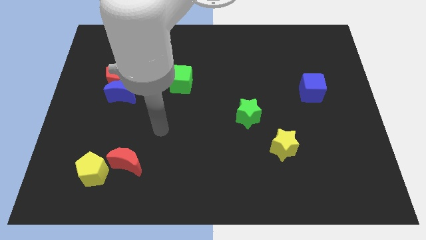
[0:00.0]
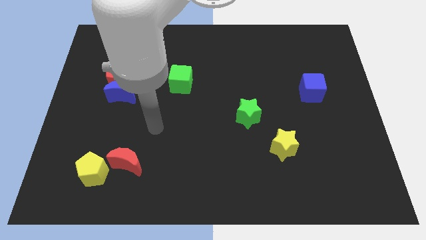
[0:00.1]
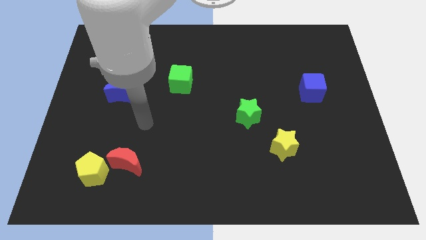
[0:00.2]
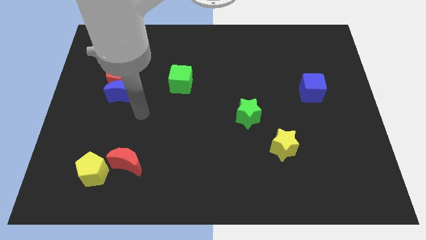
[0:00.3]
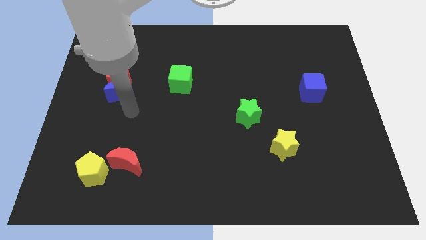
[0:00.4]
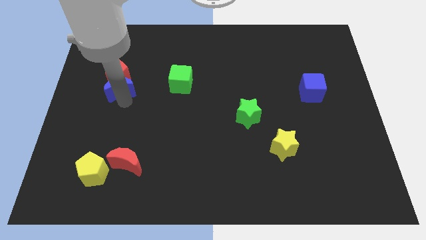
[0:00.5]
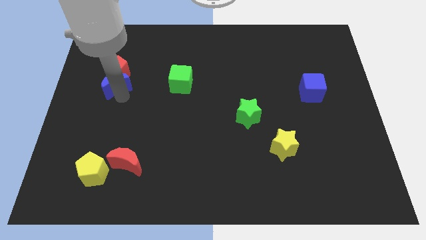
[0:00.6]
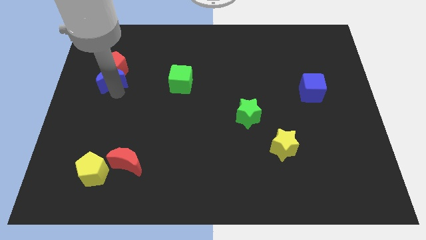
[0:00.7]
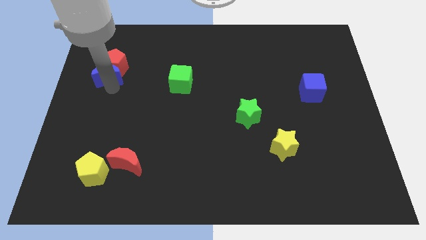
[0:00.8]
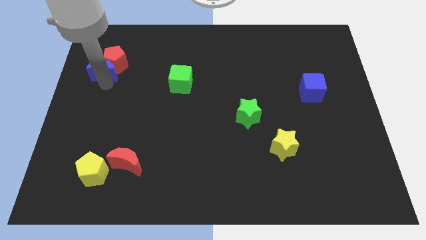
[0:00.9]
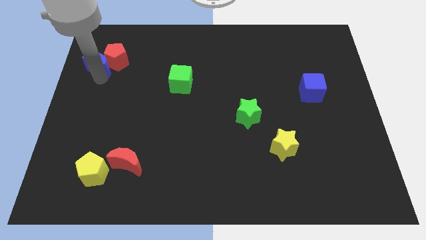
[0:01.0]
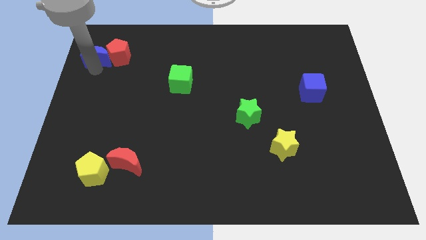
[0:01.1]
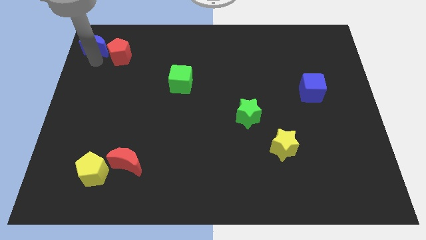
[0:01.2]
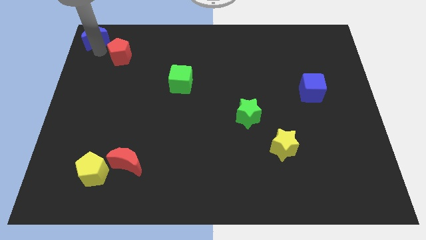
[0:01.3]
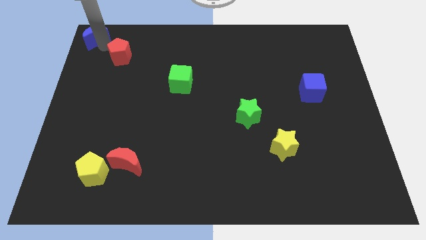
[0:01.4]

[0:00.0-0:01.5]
move the red pentagon away from the blue moon

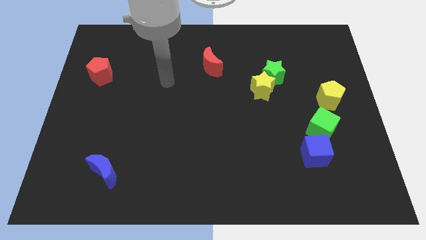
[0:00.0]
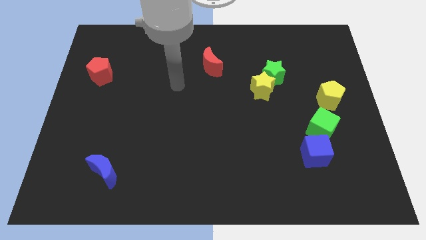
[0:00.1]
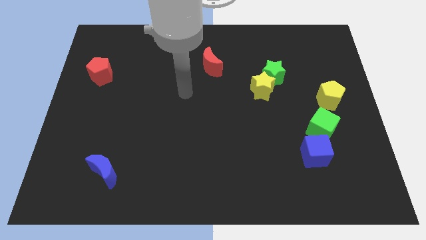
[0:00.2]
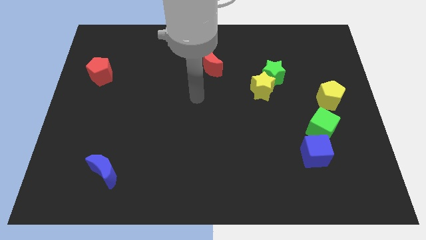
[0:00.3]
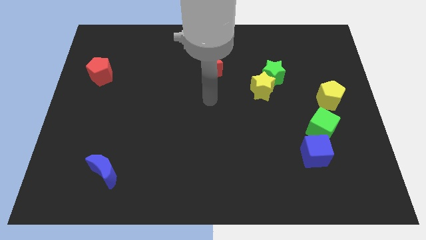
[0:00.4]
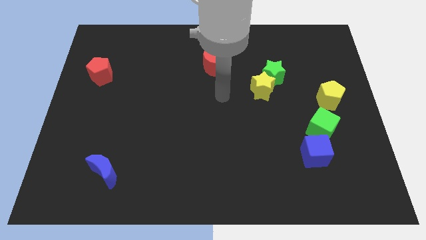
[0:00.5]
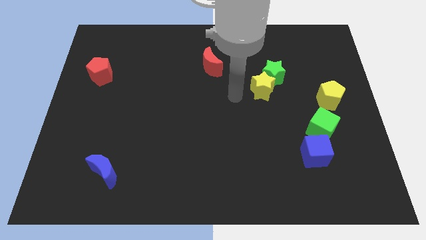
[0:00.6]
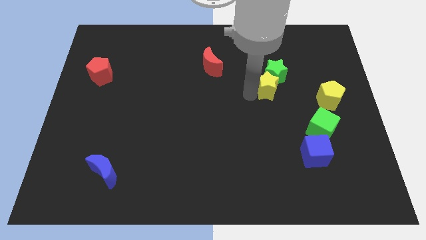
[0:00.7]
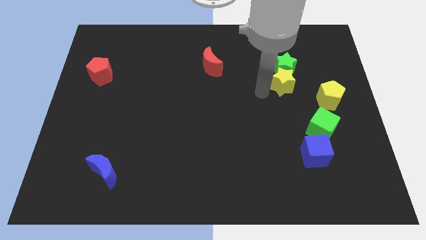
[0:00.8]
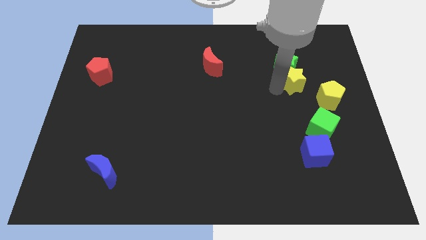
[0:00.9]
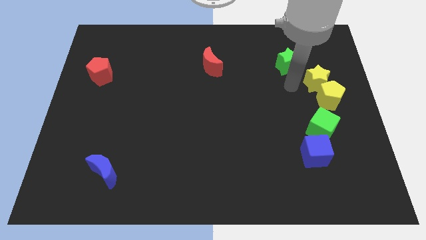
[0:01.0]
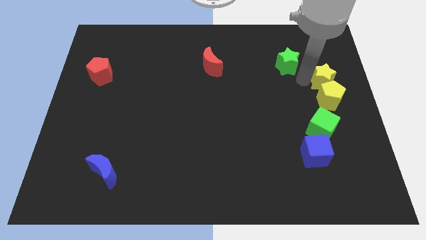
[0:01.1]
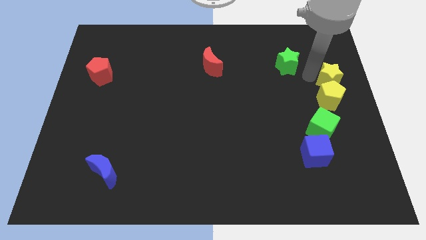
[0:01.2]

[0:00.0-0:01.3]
pull the green star apart from the yellow star

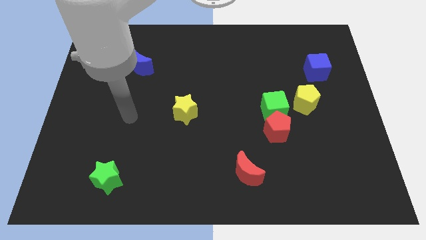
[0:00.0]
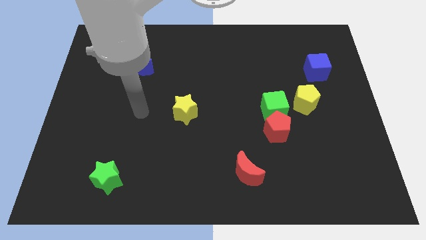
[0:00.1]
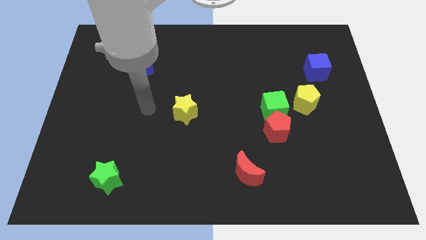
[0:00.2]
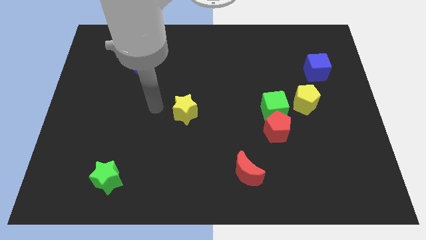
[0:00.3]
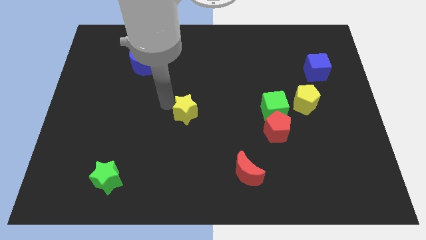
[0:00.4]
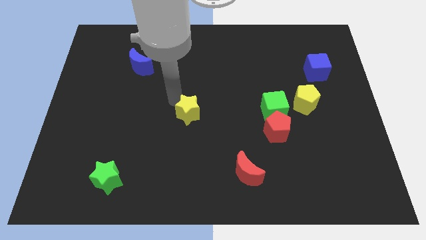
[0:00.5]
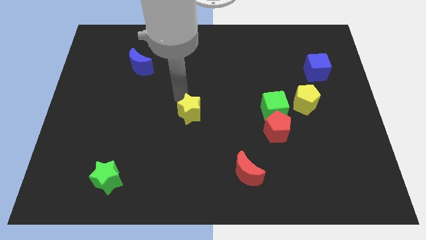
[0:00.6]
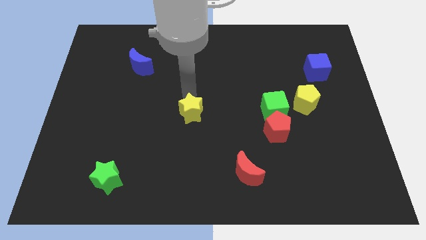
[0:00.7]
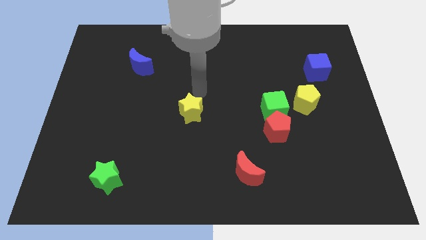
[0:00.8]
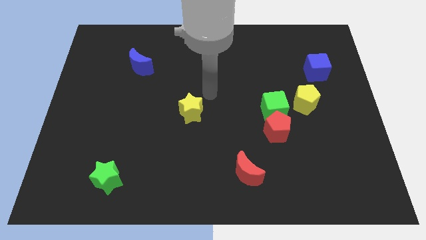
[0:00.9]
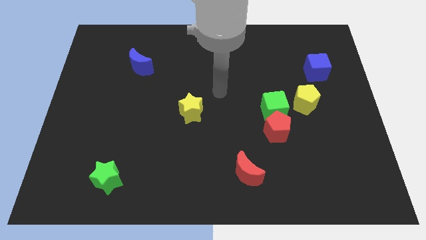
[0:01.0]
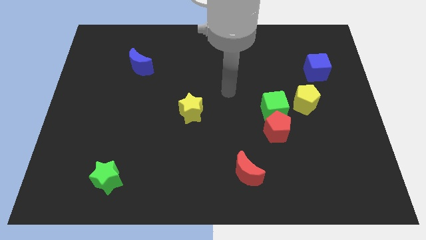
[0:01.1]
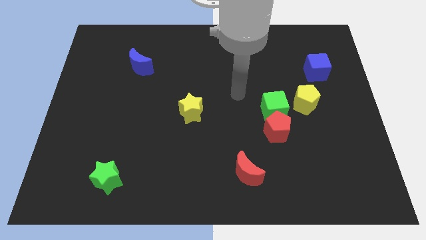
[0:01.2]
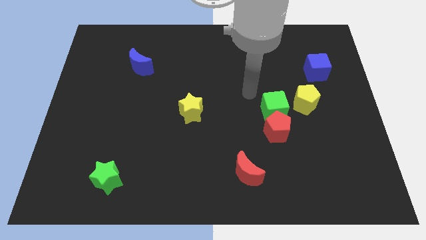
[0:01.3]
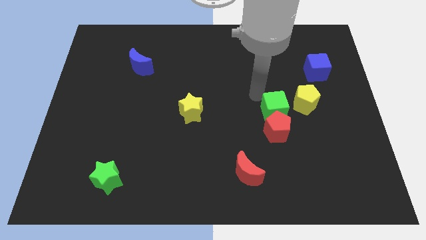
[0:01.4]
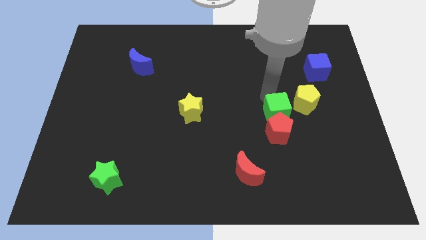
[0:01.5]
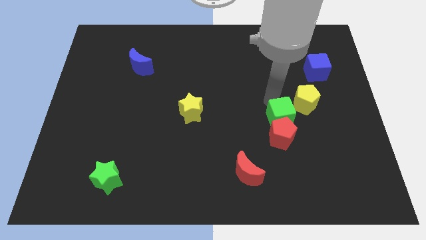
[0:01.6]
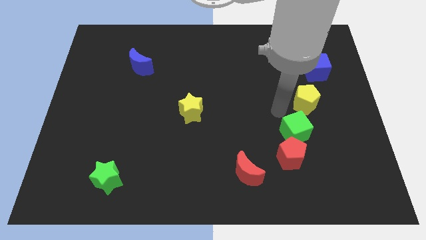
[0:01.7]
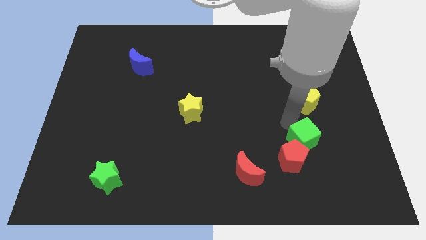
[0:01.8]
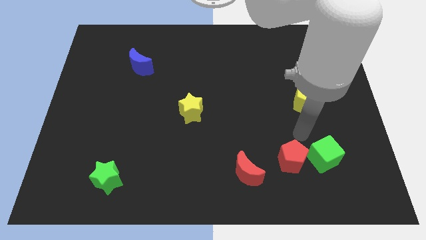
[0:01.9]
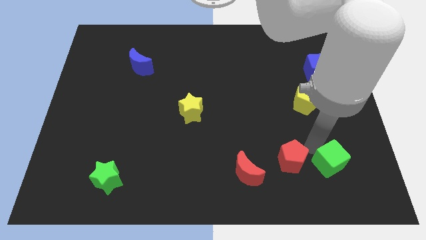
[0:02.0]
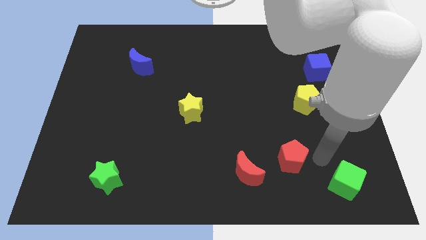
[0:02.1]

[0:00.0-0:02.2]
move the red pentagon away from the green cube

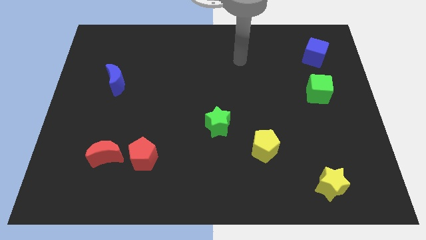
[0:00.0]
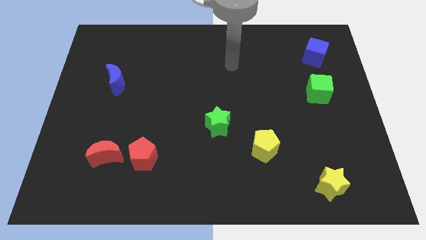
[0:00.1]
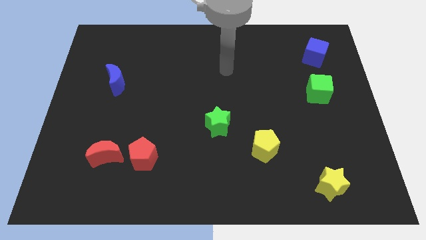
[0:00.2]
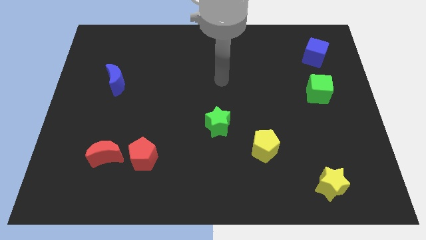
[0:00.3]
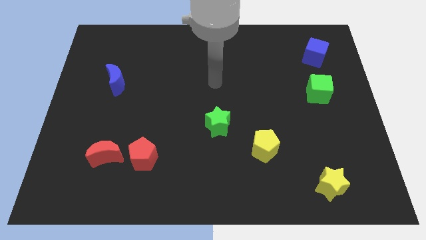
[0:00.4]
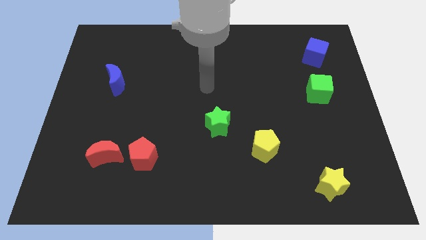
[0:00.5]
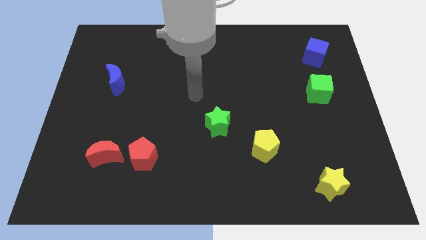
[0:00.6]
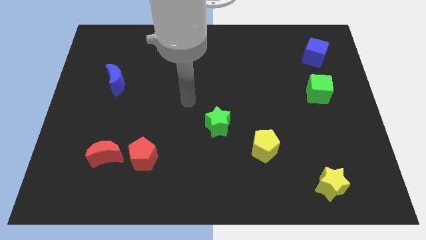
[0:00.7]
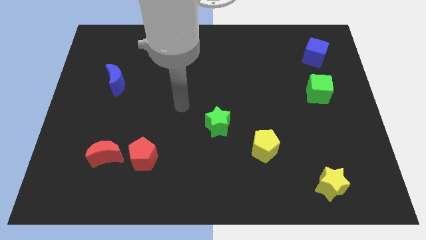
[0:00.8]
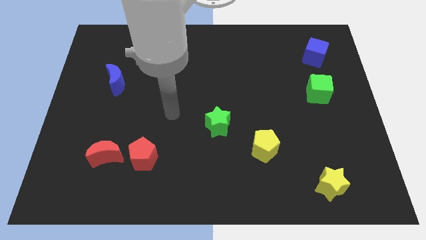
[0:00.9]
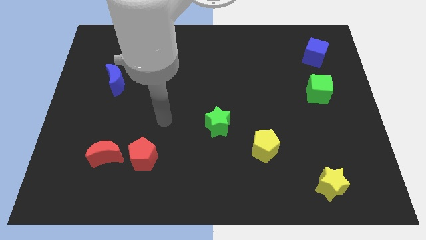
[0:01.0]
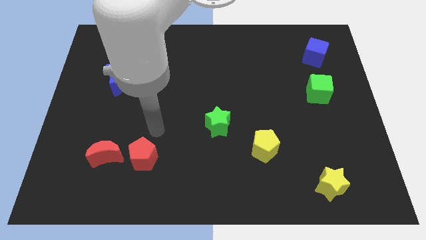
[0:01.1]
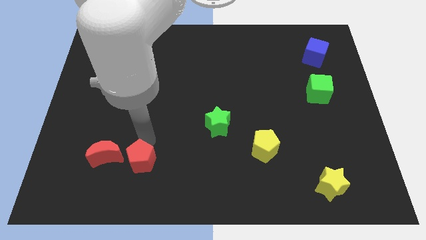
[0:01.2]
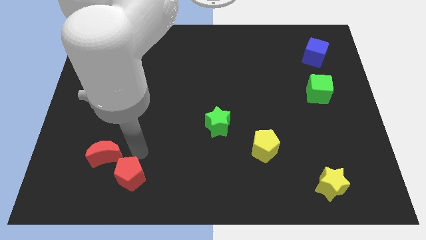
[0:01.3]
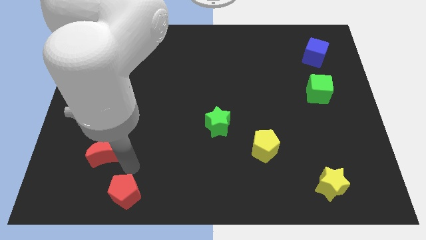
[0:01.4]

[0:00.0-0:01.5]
separate the red moon from the red pentagon

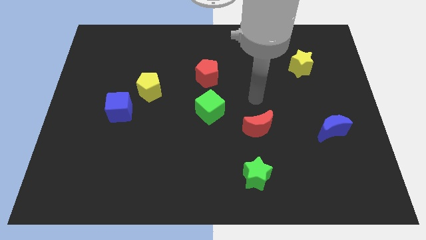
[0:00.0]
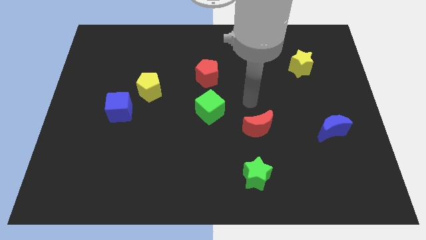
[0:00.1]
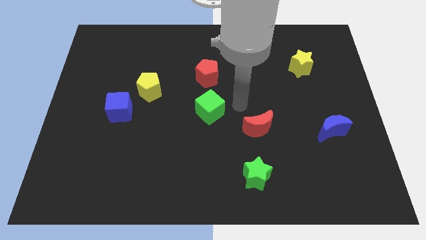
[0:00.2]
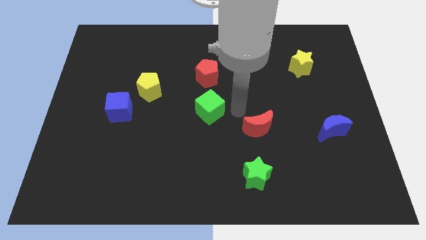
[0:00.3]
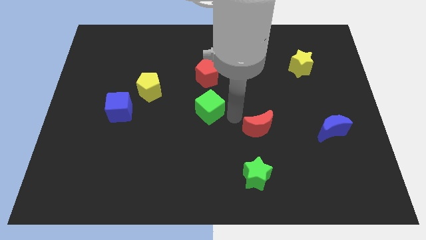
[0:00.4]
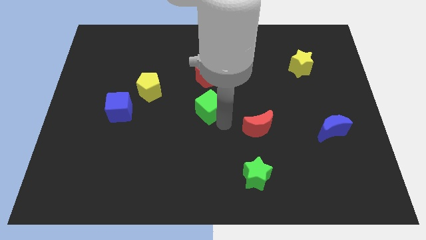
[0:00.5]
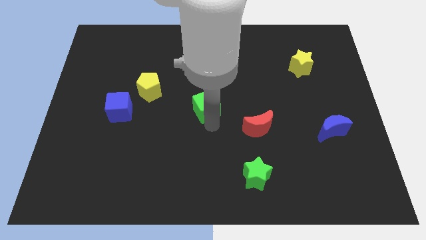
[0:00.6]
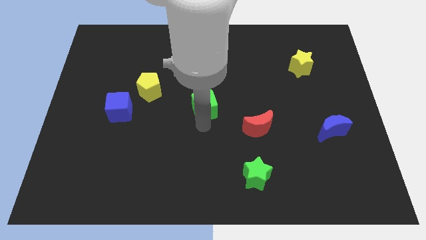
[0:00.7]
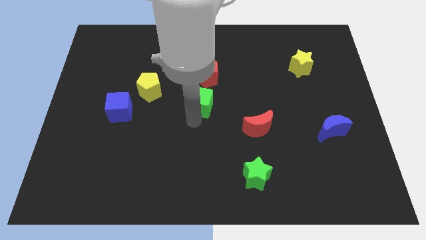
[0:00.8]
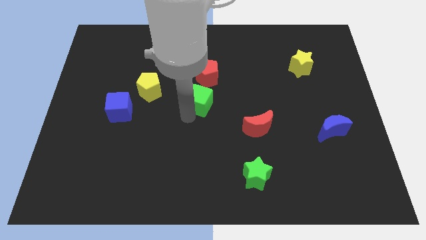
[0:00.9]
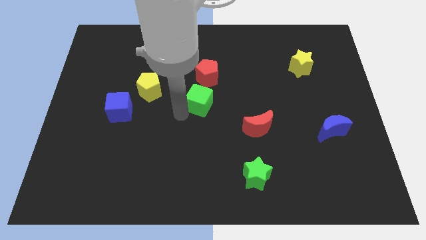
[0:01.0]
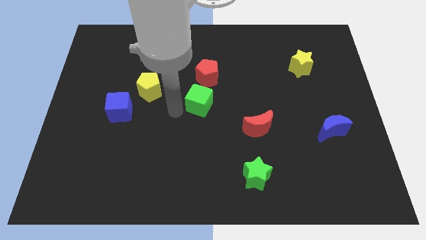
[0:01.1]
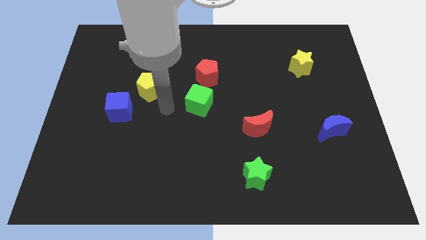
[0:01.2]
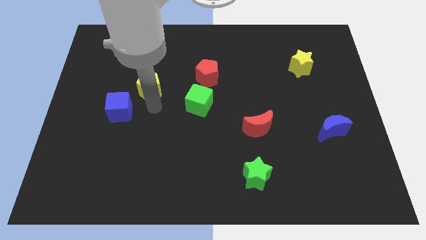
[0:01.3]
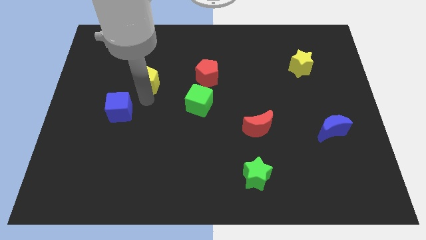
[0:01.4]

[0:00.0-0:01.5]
pull the blue cube apart from the yellow pentagon

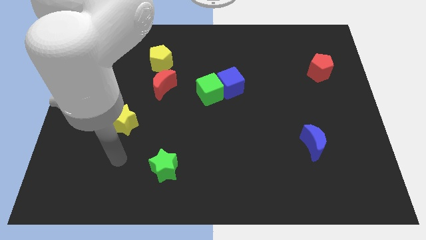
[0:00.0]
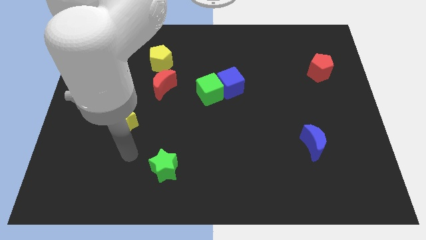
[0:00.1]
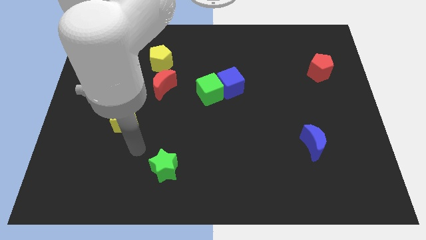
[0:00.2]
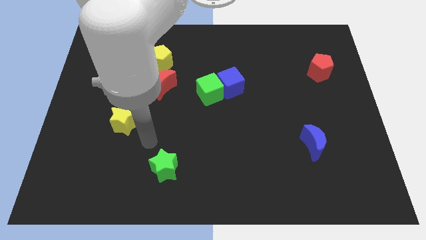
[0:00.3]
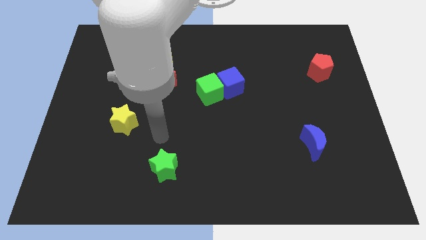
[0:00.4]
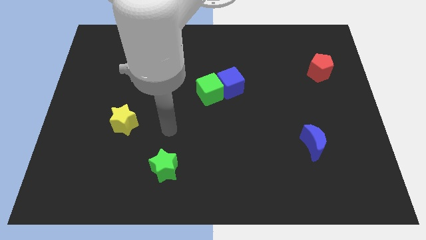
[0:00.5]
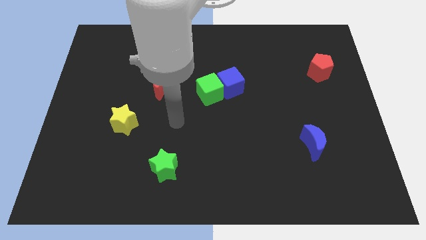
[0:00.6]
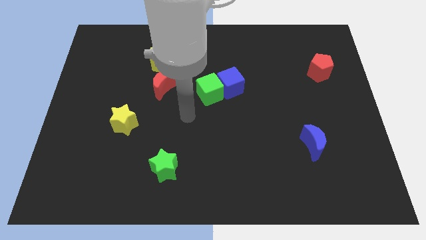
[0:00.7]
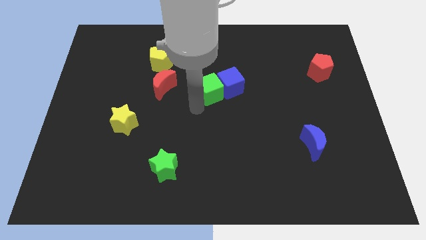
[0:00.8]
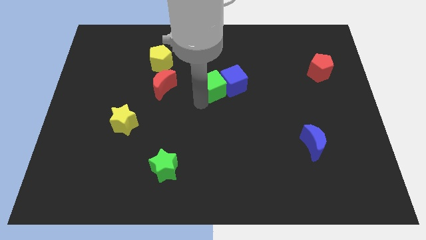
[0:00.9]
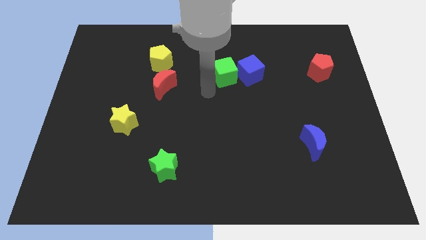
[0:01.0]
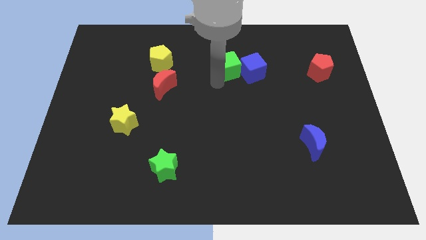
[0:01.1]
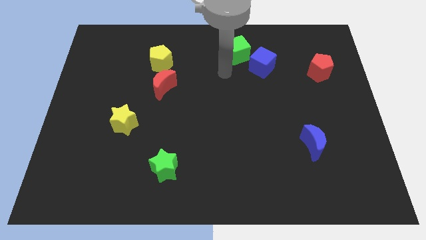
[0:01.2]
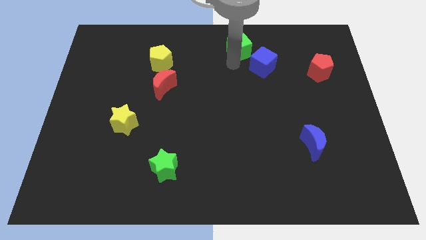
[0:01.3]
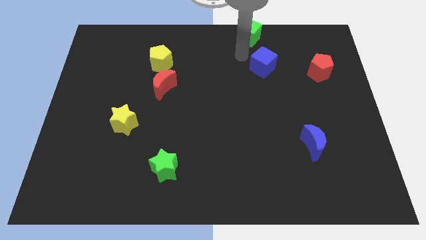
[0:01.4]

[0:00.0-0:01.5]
separate the blue cube from the green cube
